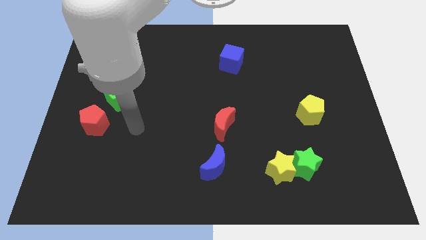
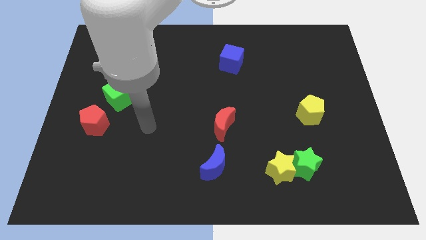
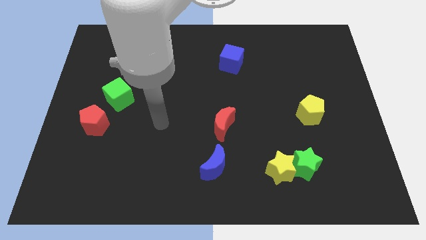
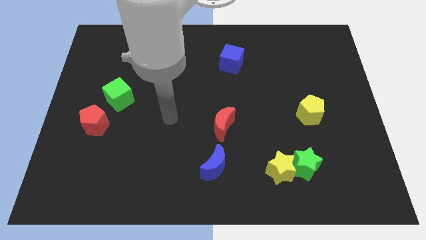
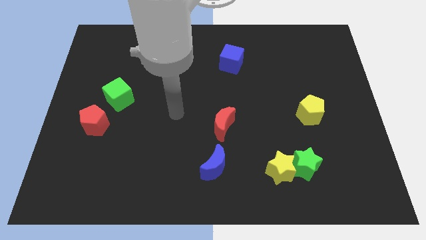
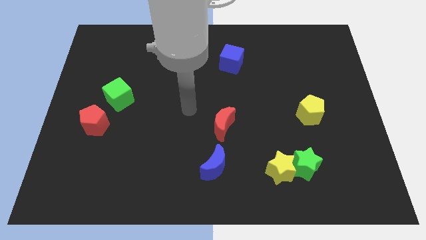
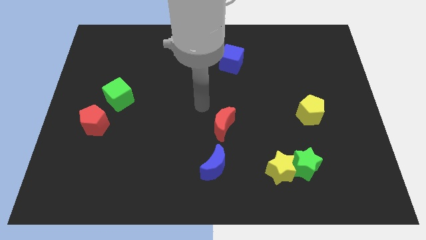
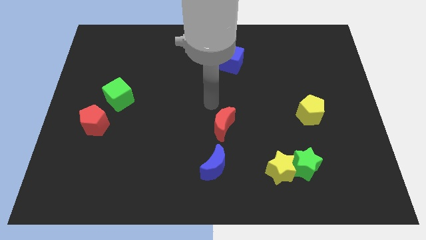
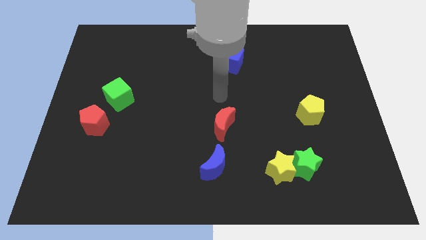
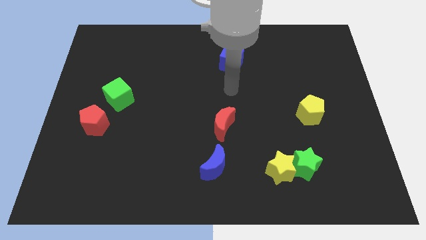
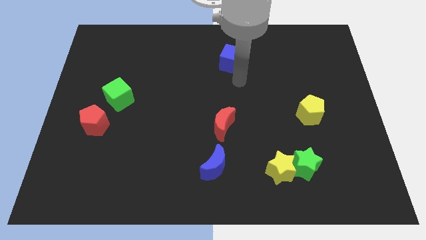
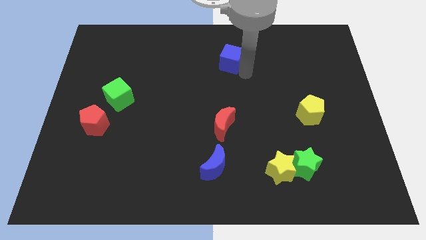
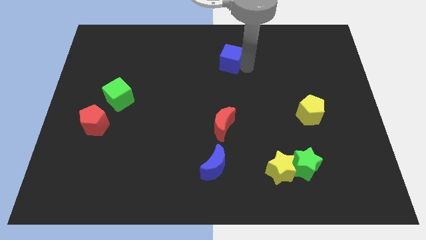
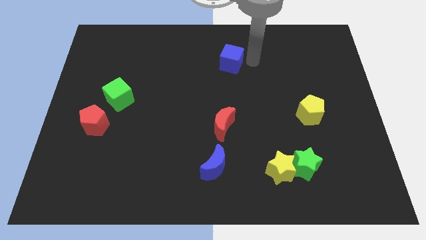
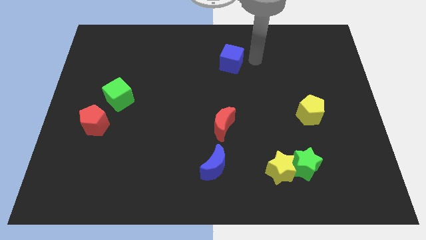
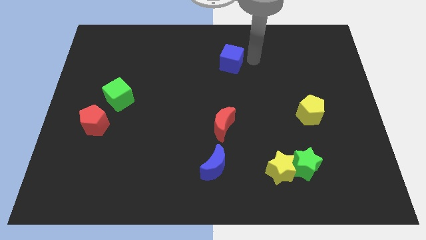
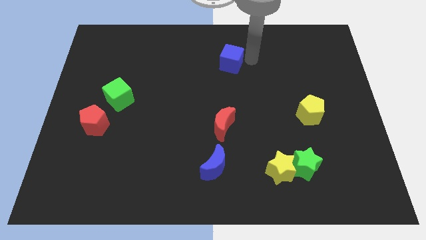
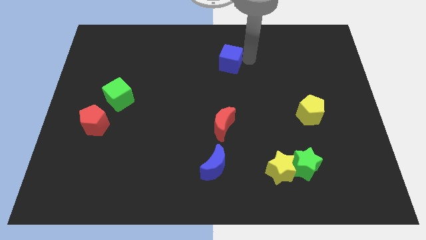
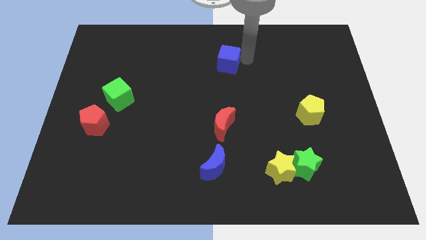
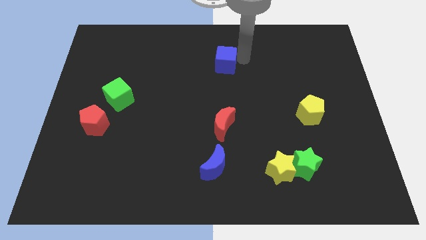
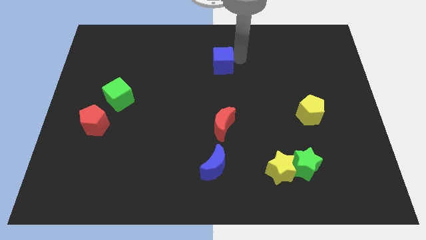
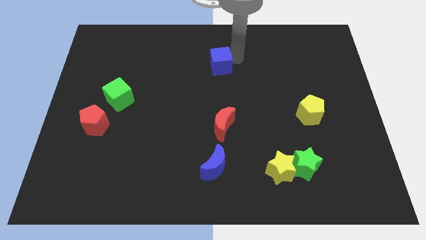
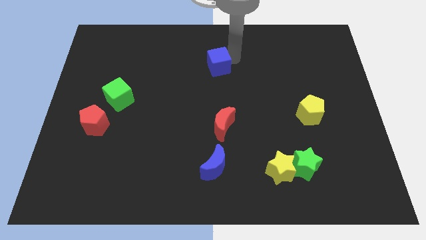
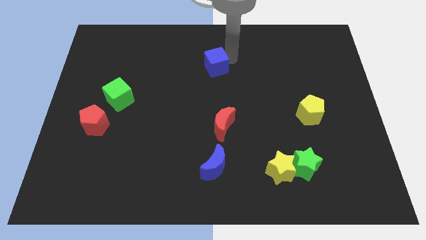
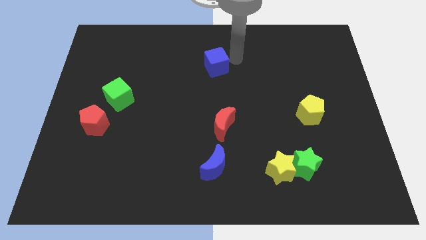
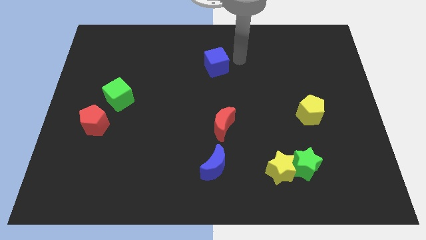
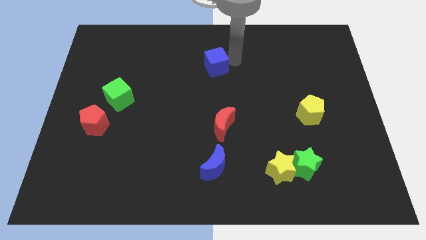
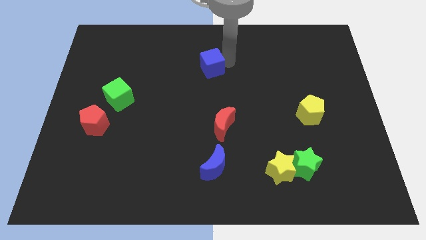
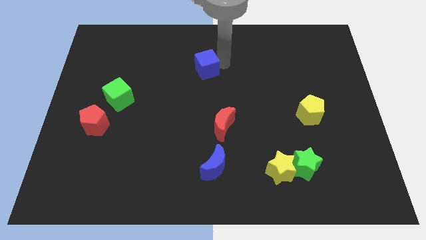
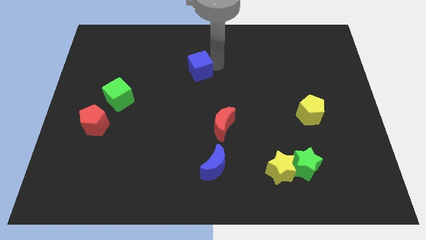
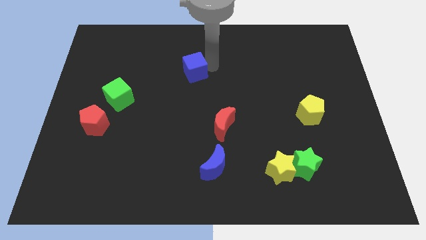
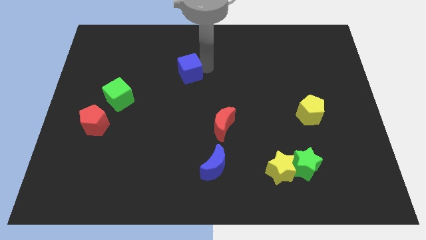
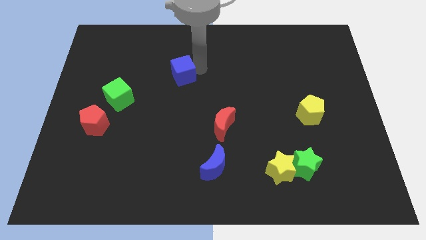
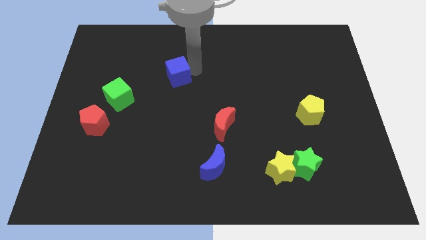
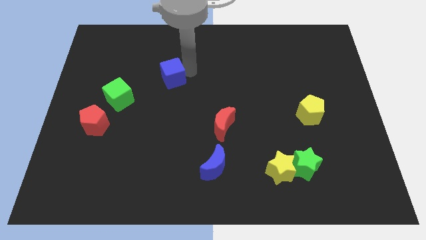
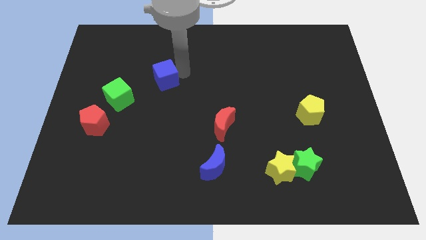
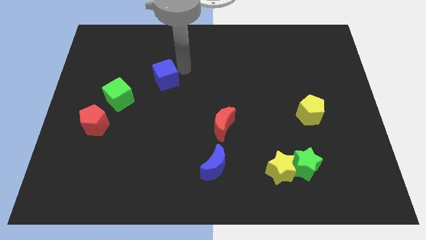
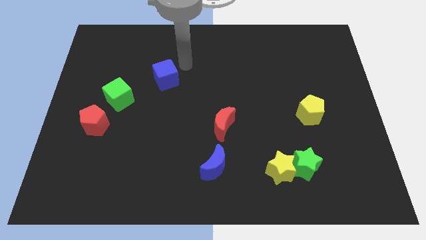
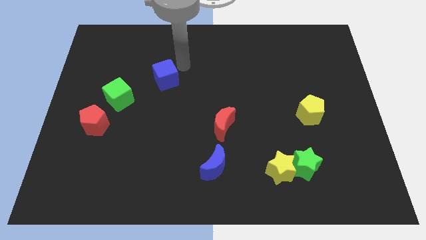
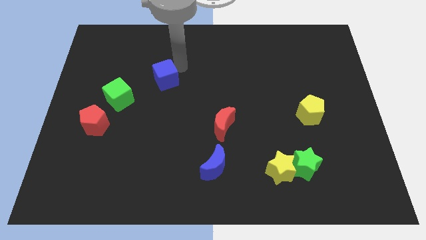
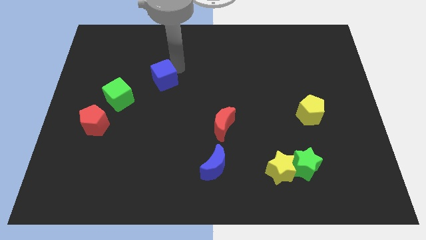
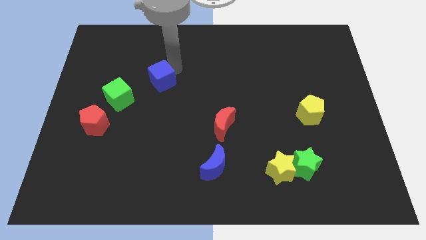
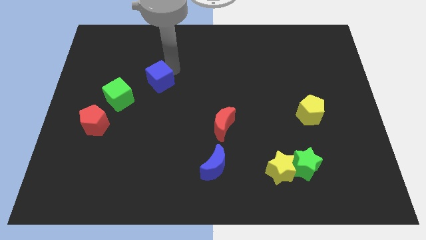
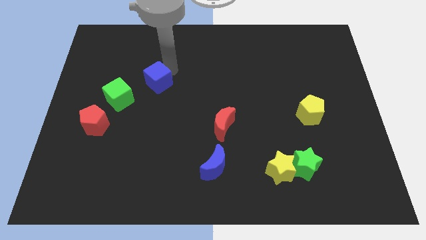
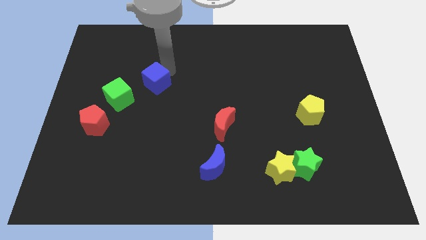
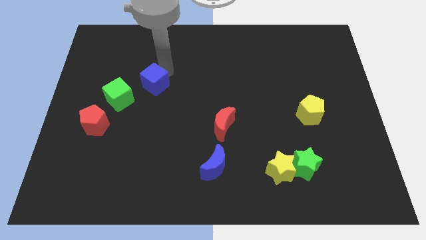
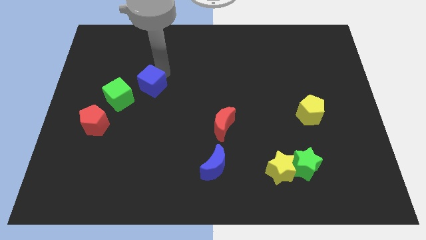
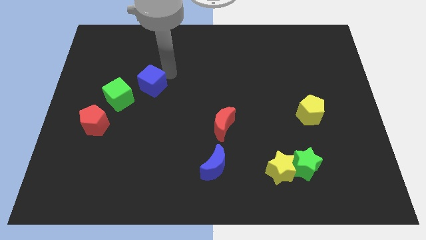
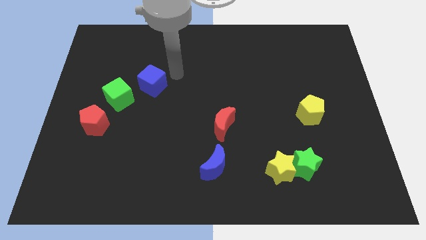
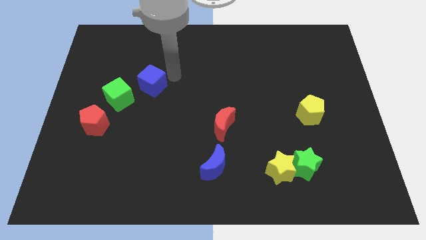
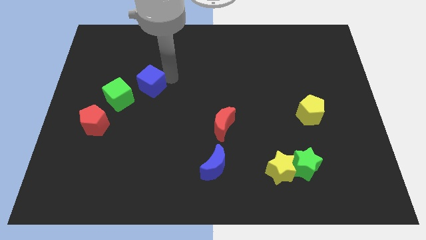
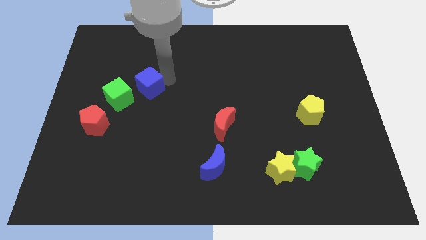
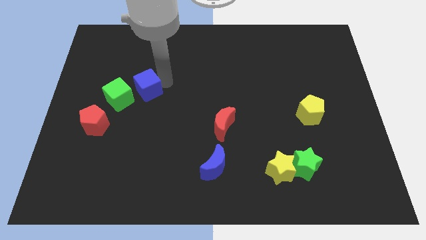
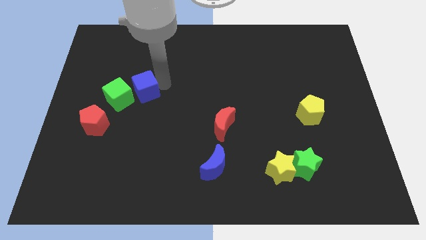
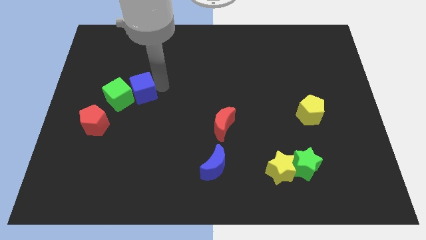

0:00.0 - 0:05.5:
put the blue cube next to the green cube

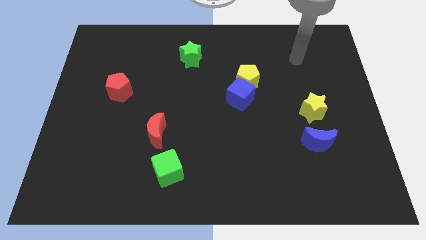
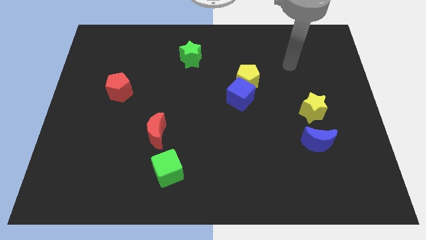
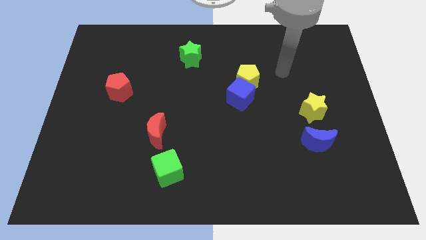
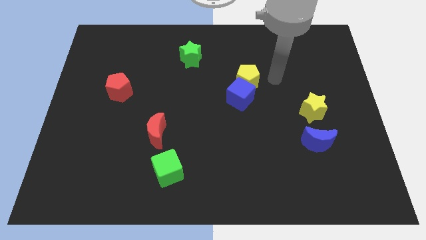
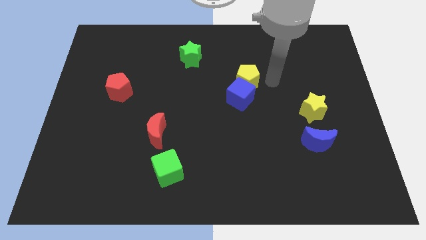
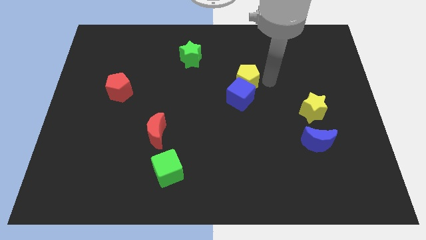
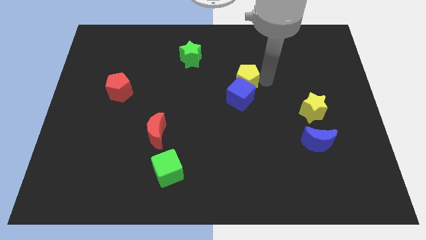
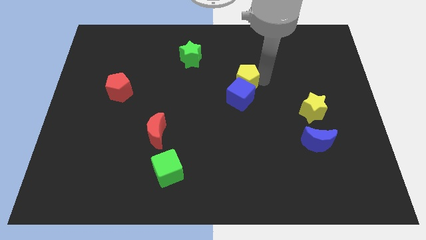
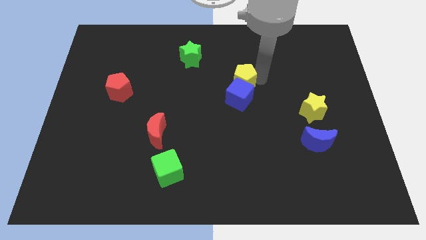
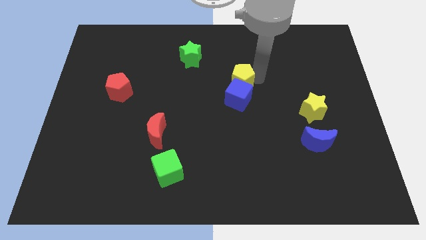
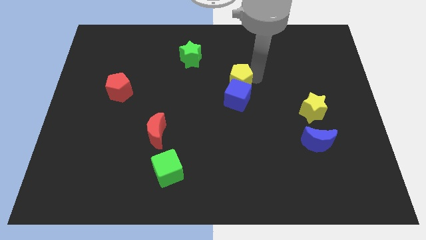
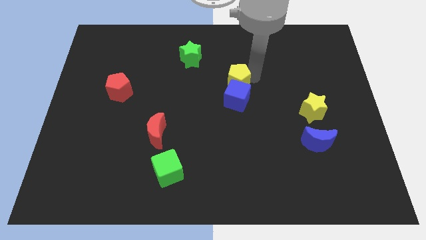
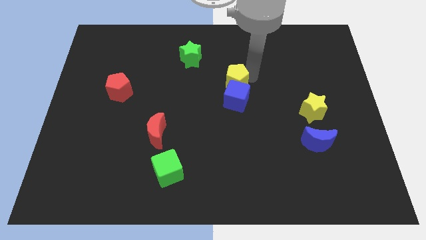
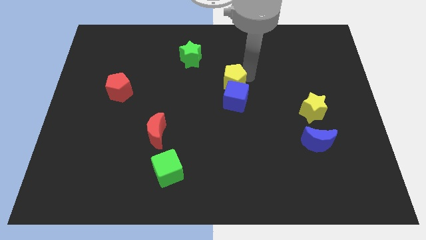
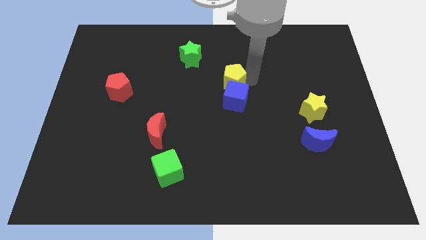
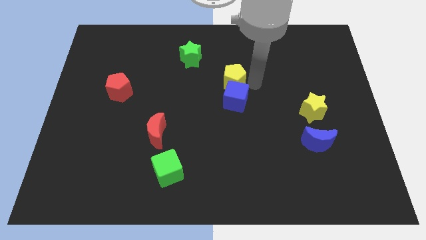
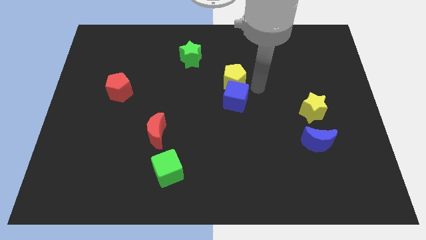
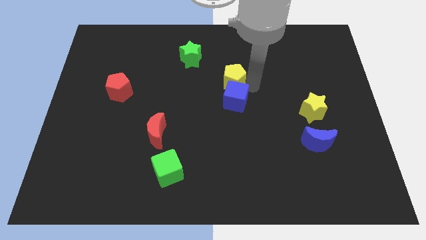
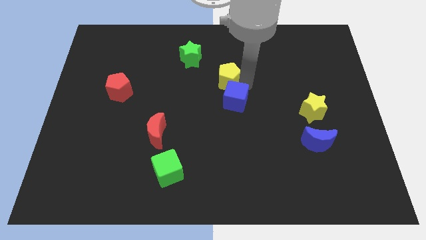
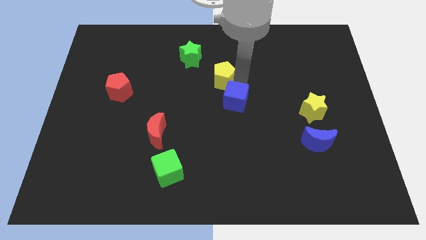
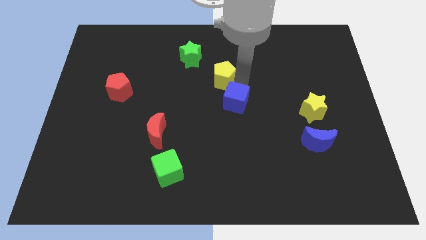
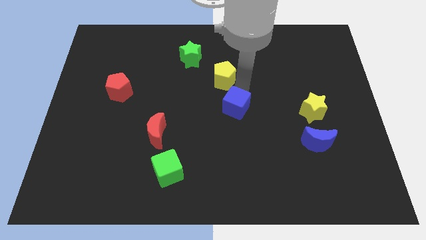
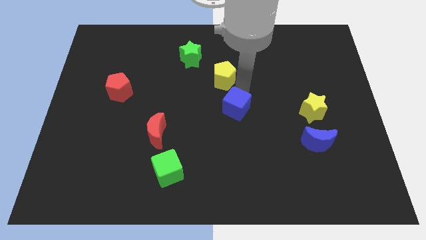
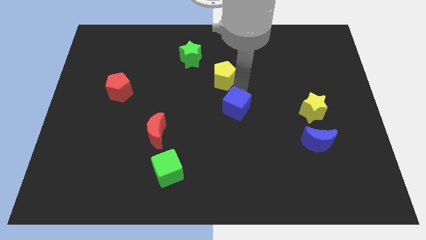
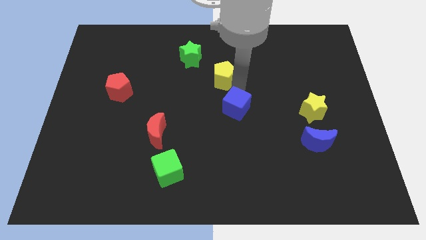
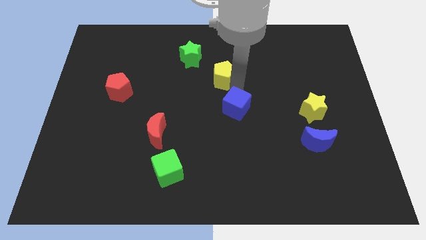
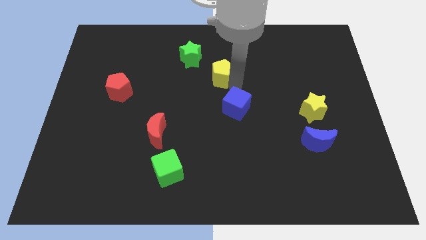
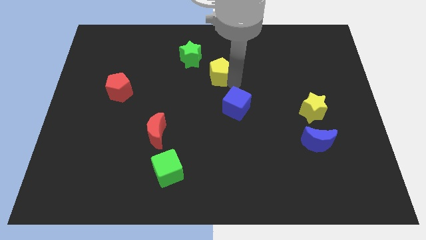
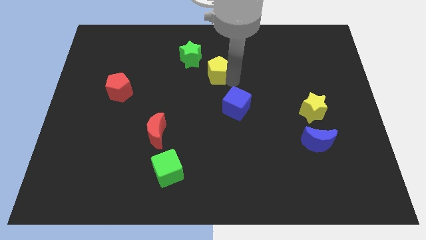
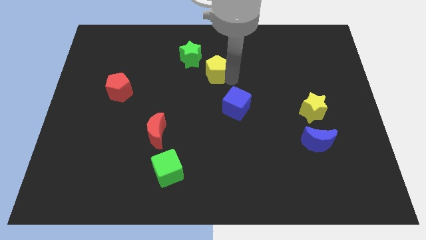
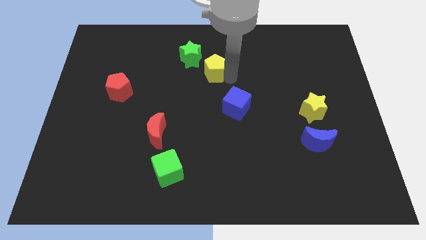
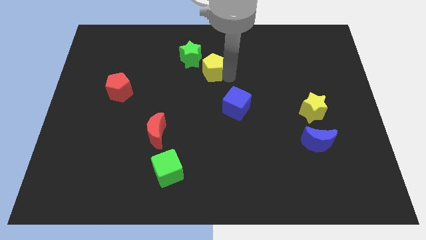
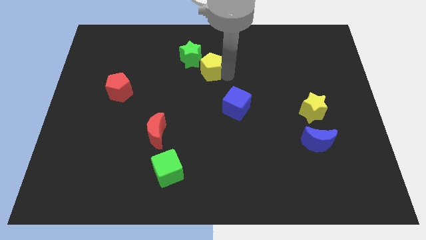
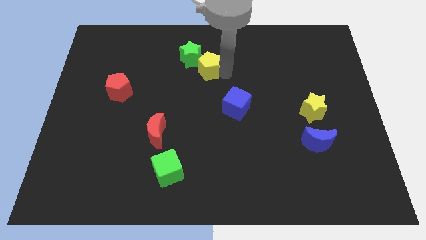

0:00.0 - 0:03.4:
put the yellow pentagon towards the green star
